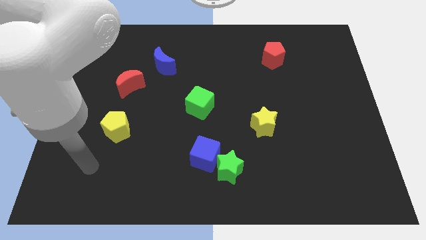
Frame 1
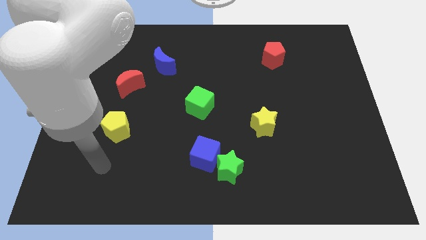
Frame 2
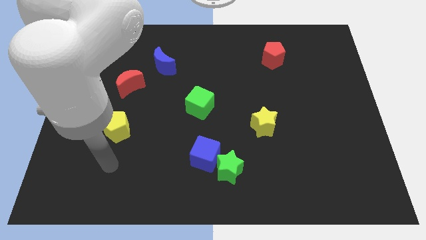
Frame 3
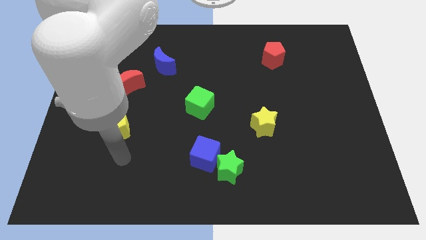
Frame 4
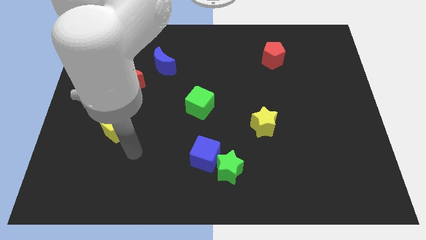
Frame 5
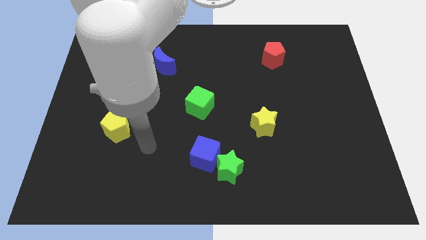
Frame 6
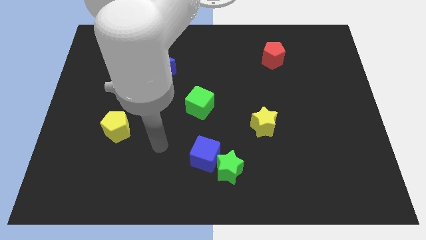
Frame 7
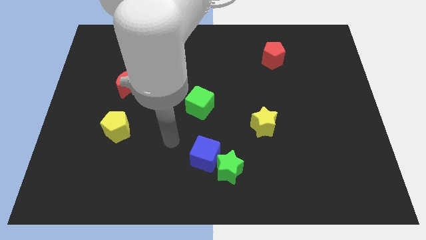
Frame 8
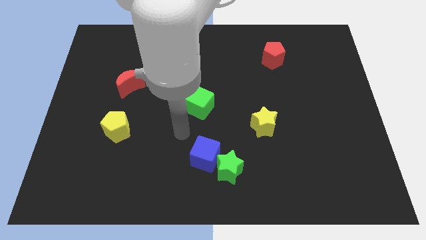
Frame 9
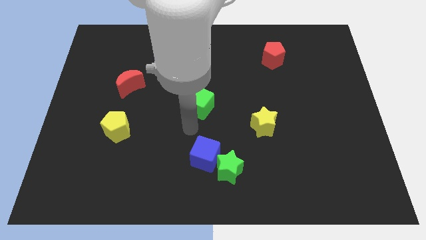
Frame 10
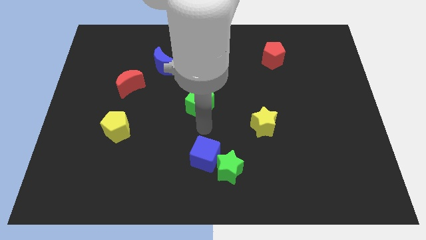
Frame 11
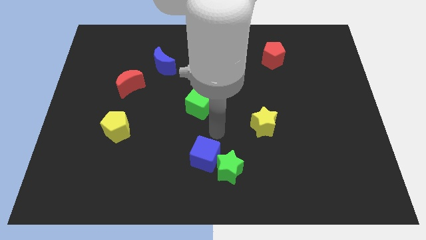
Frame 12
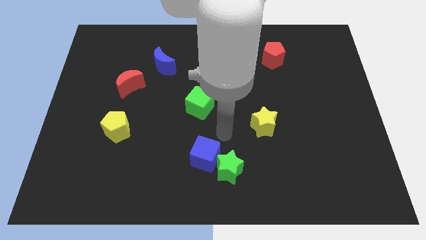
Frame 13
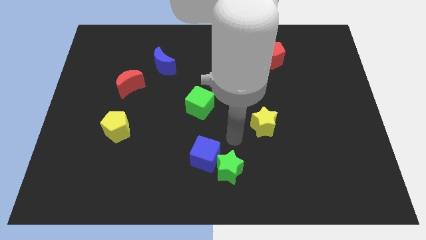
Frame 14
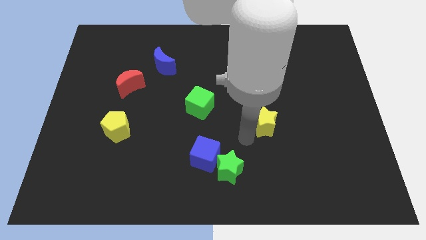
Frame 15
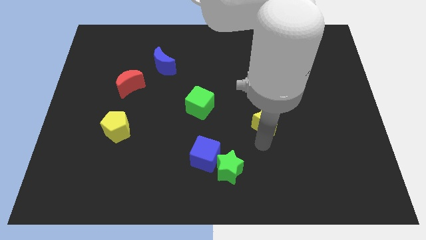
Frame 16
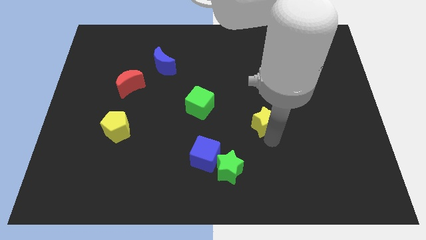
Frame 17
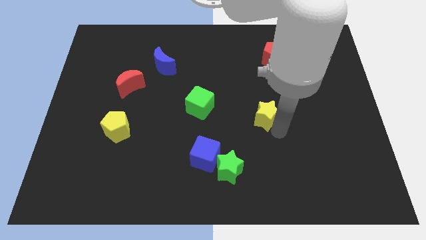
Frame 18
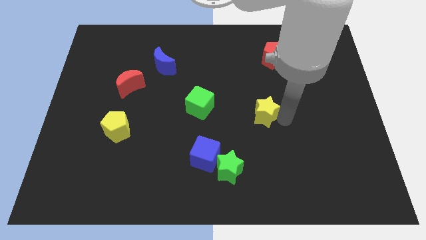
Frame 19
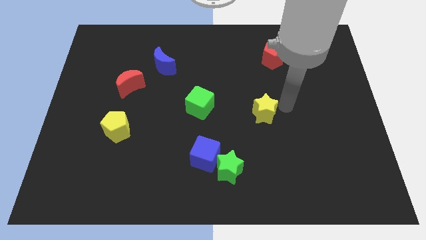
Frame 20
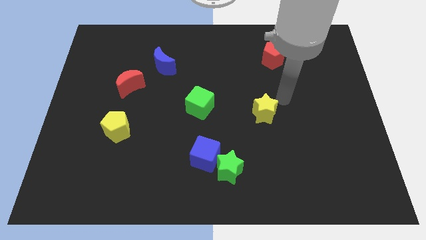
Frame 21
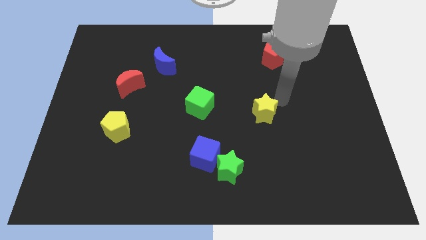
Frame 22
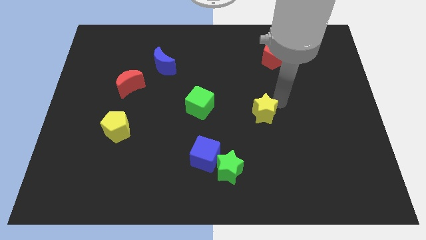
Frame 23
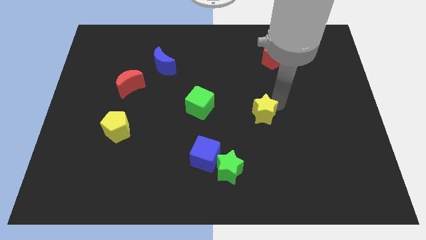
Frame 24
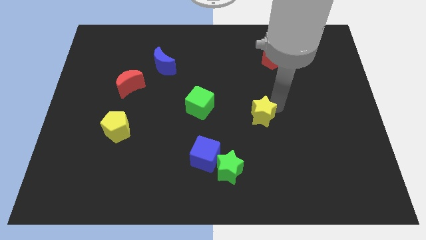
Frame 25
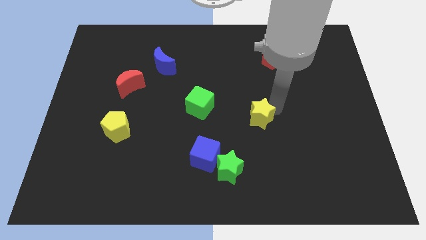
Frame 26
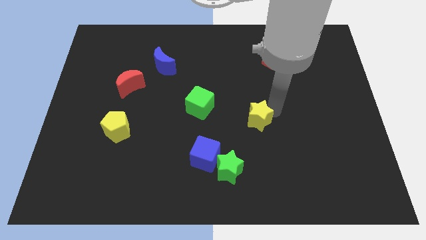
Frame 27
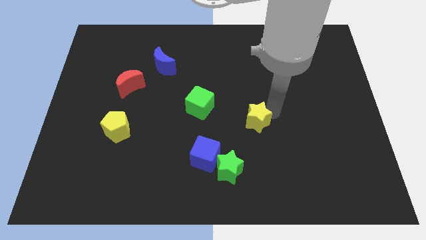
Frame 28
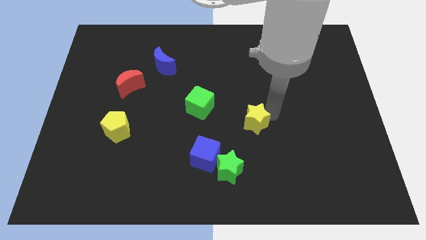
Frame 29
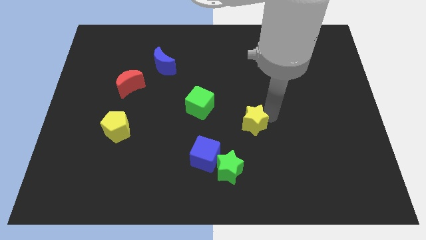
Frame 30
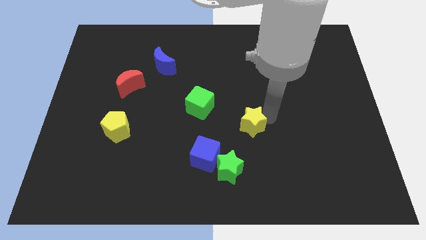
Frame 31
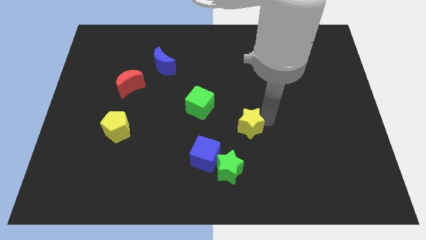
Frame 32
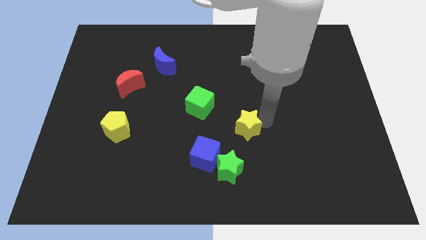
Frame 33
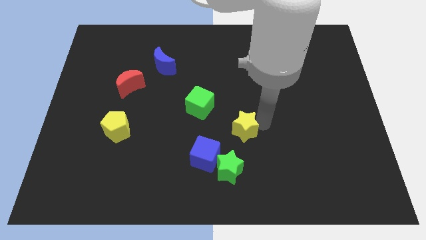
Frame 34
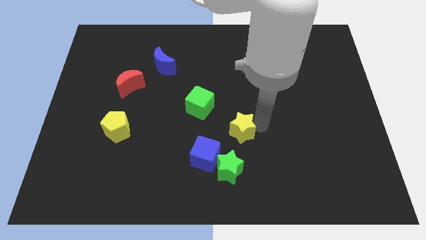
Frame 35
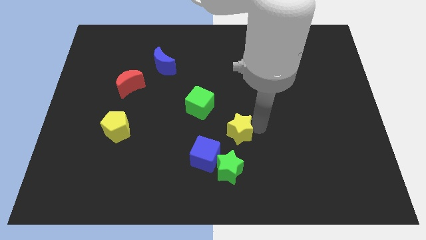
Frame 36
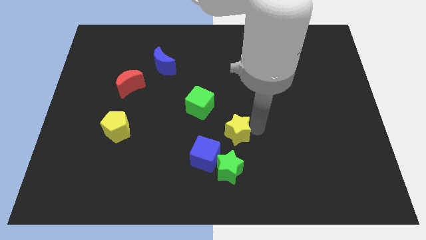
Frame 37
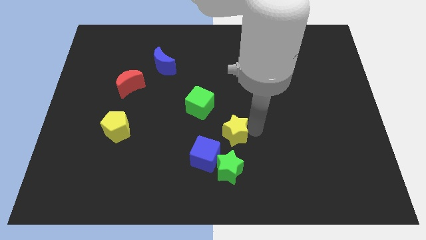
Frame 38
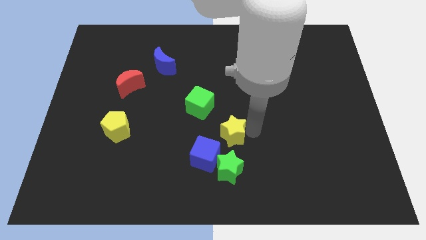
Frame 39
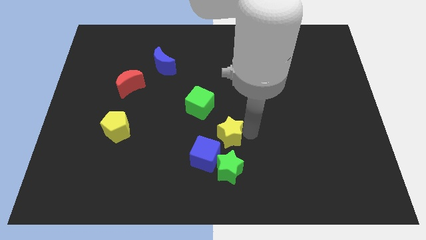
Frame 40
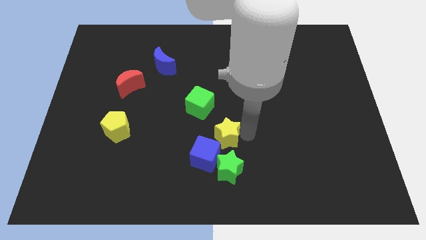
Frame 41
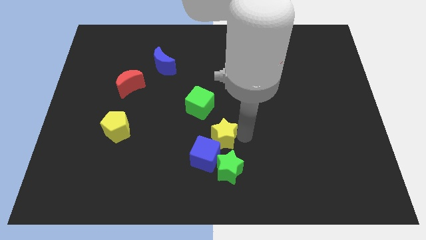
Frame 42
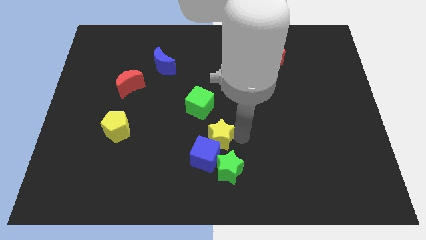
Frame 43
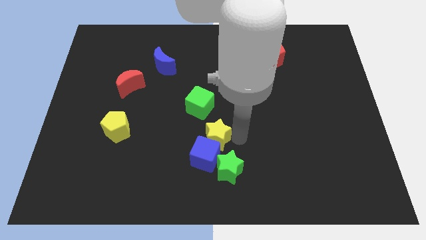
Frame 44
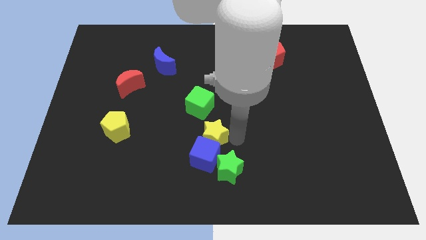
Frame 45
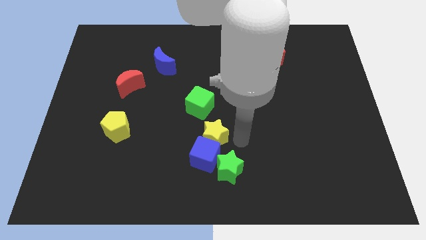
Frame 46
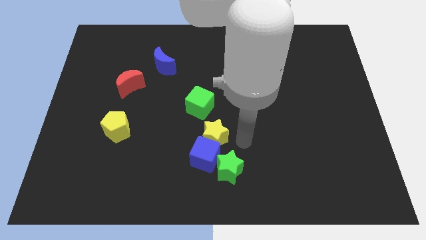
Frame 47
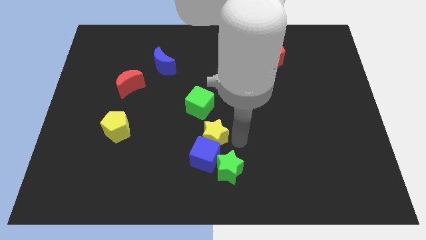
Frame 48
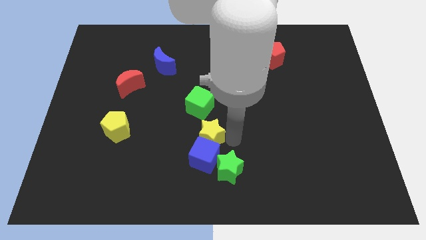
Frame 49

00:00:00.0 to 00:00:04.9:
move the yellow star diagonally up and to the left of the blue cube

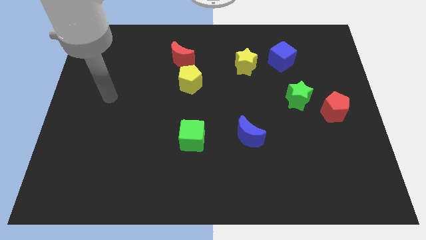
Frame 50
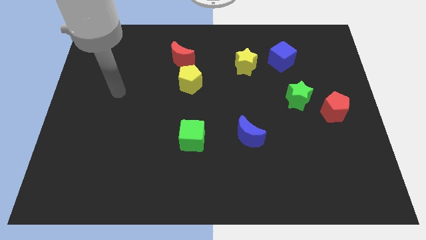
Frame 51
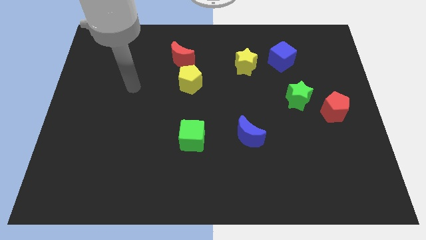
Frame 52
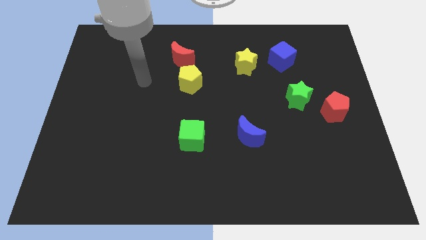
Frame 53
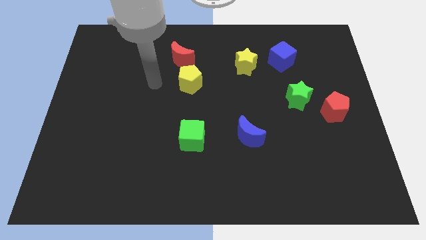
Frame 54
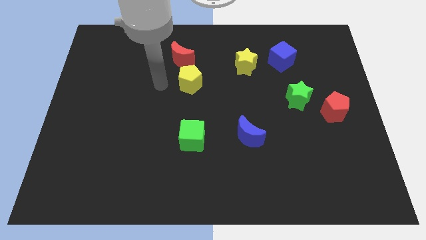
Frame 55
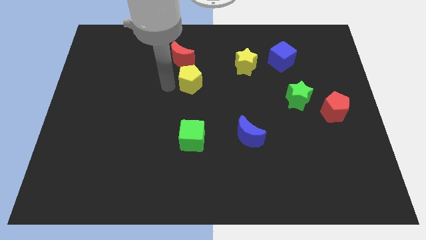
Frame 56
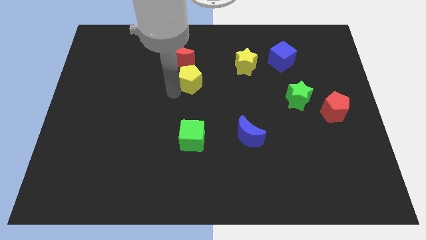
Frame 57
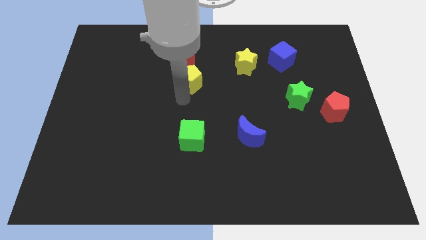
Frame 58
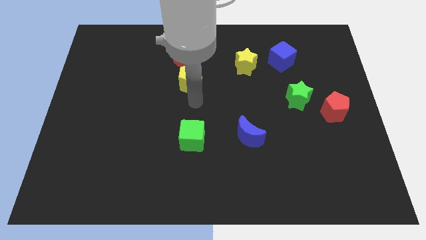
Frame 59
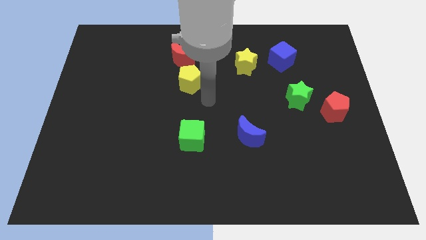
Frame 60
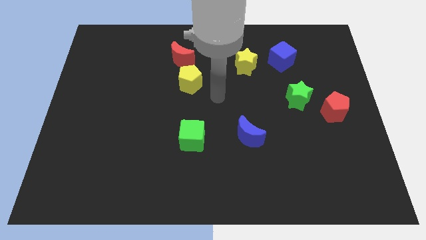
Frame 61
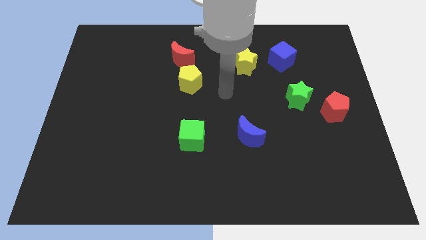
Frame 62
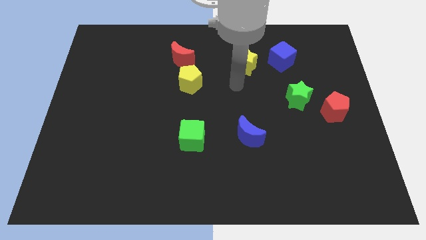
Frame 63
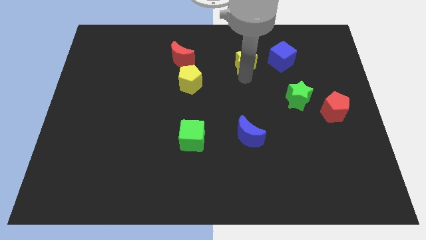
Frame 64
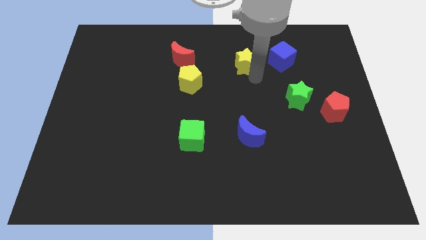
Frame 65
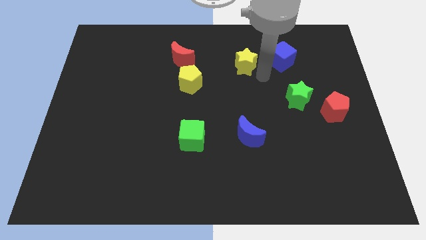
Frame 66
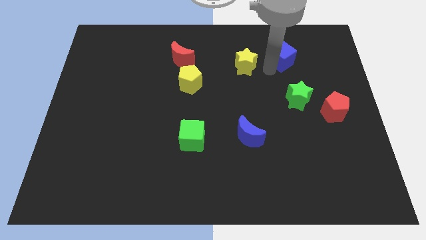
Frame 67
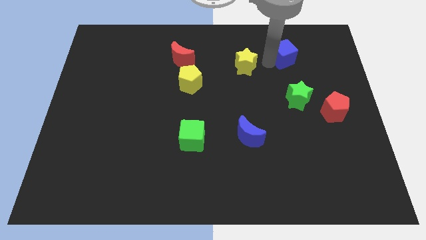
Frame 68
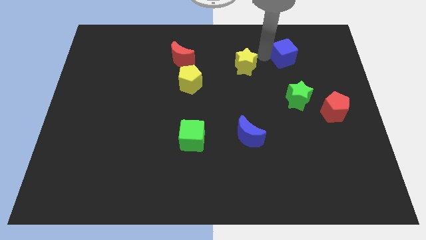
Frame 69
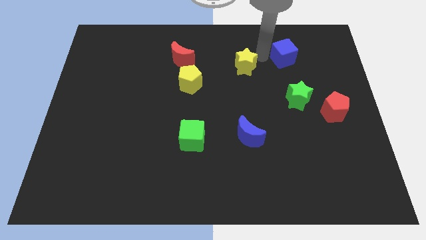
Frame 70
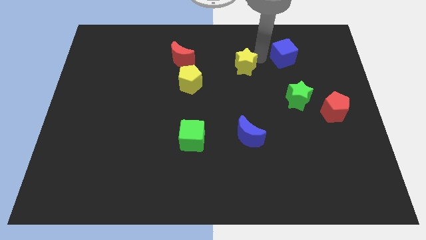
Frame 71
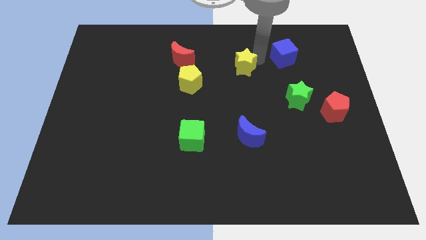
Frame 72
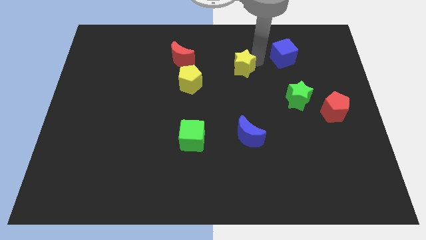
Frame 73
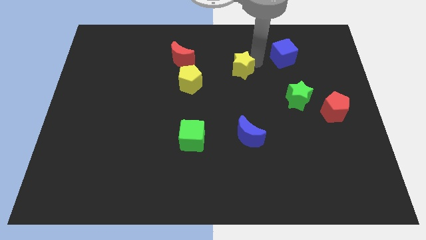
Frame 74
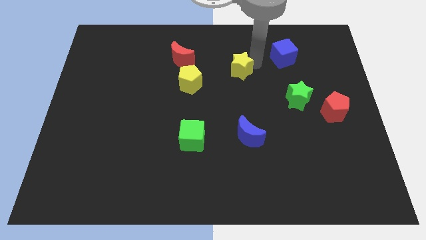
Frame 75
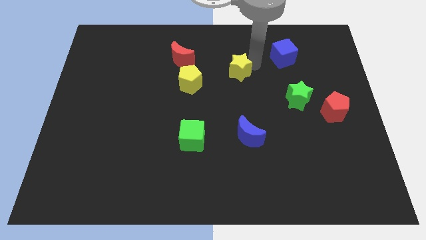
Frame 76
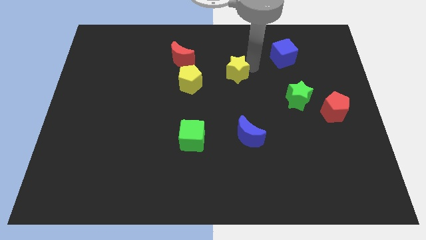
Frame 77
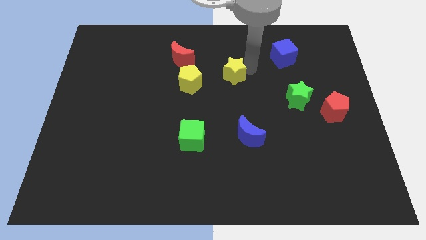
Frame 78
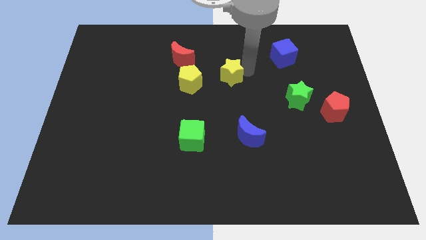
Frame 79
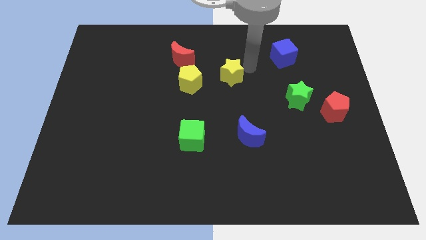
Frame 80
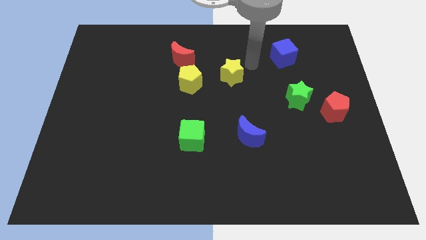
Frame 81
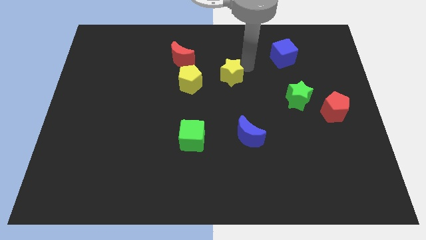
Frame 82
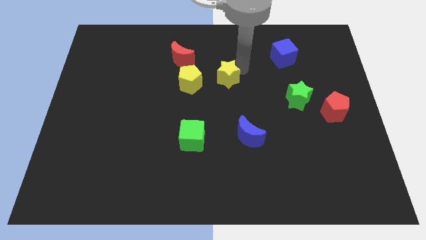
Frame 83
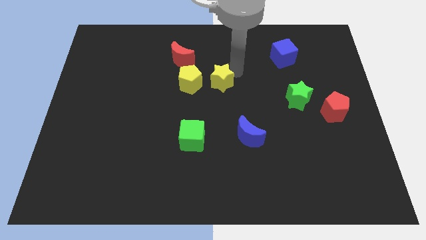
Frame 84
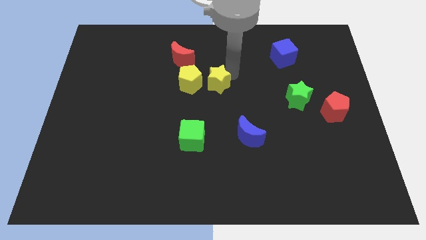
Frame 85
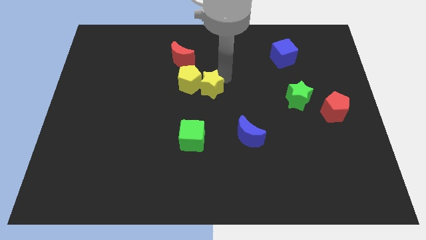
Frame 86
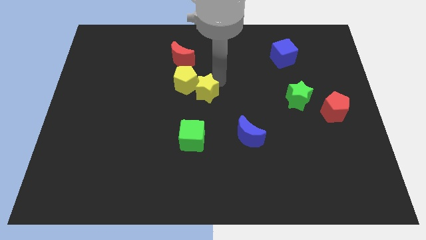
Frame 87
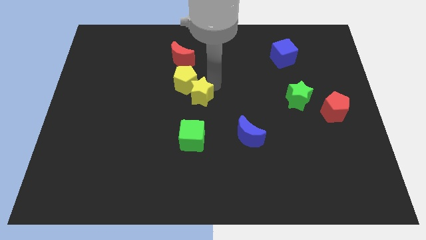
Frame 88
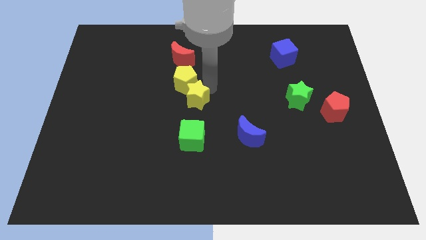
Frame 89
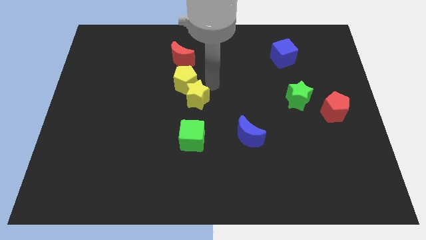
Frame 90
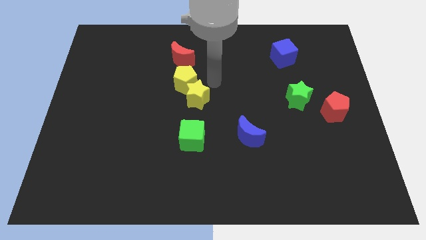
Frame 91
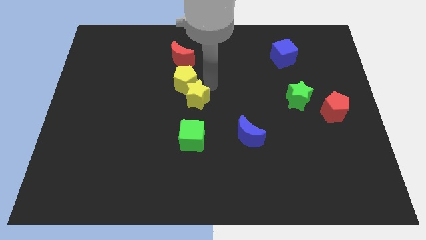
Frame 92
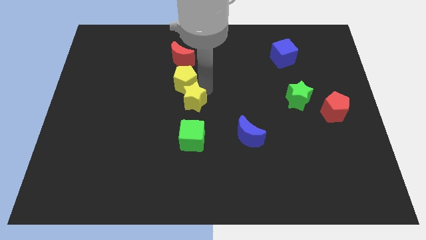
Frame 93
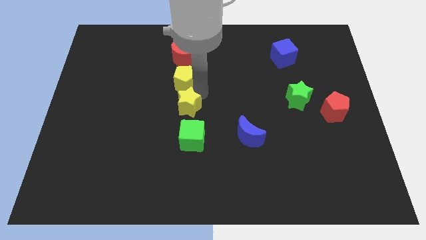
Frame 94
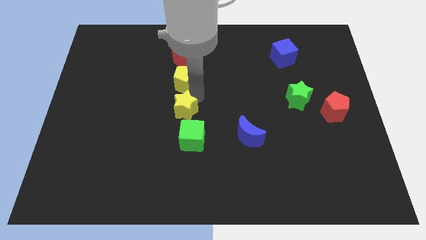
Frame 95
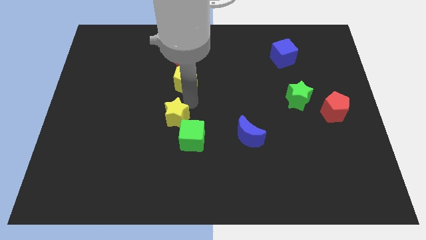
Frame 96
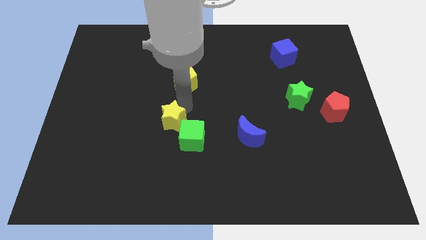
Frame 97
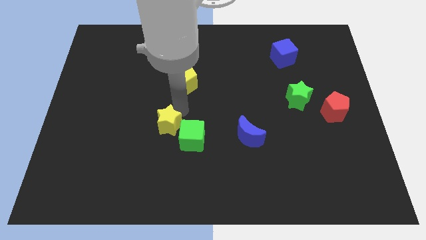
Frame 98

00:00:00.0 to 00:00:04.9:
push the yellow star left of the green cube
